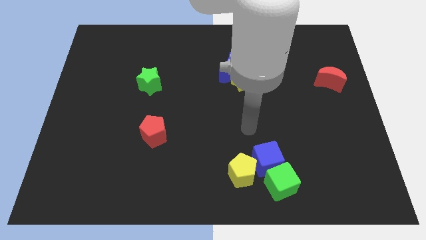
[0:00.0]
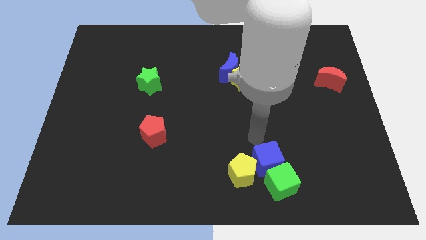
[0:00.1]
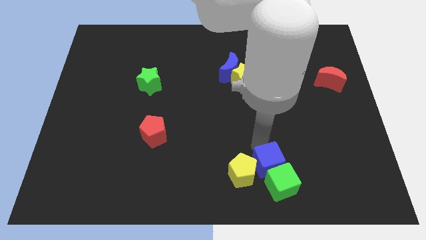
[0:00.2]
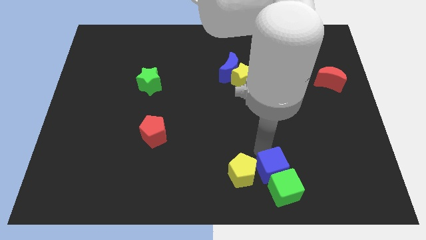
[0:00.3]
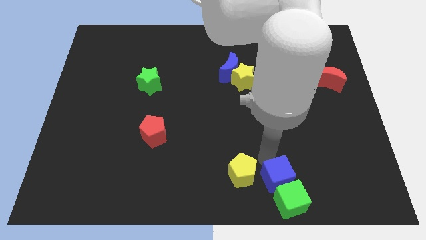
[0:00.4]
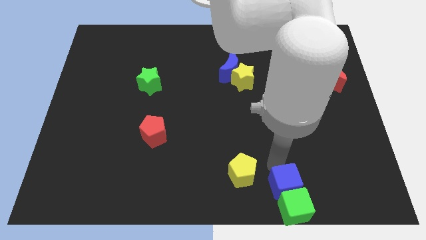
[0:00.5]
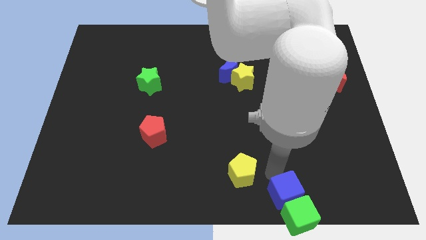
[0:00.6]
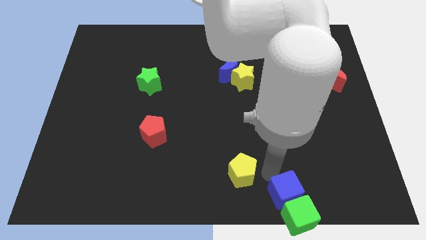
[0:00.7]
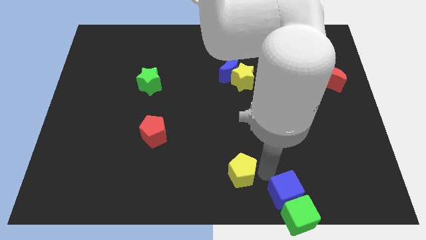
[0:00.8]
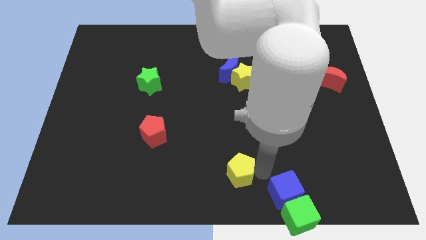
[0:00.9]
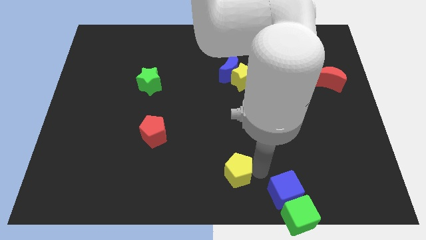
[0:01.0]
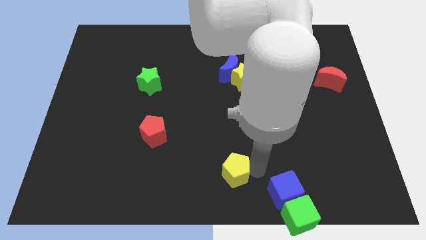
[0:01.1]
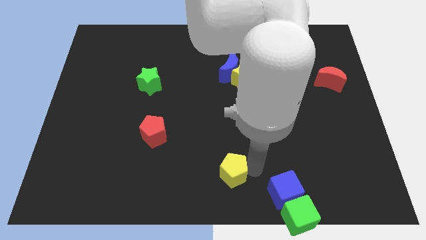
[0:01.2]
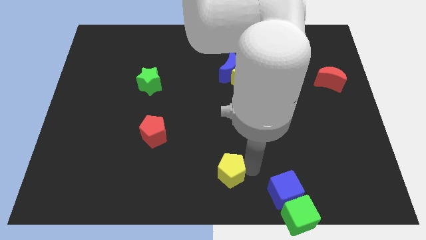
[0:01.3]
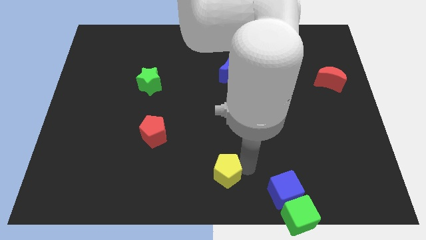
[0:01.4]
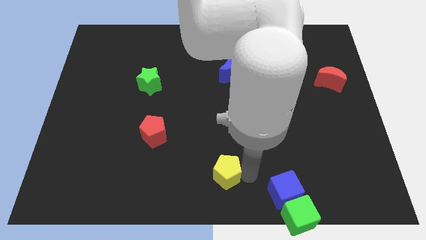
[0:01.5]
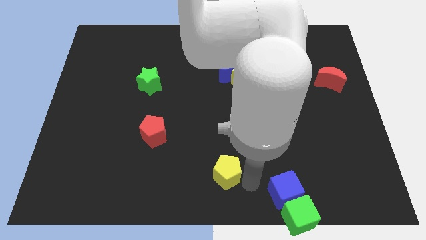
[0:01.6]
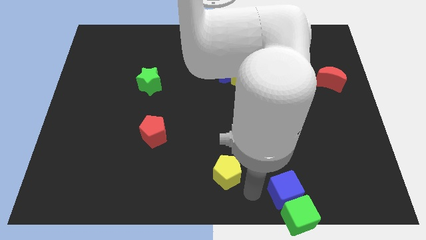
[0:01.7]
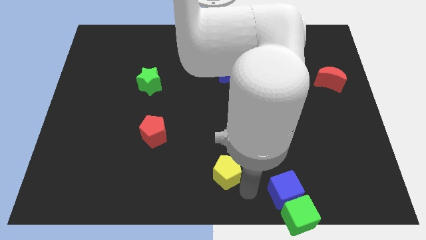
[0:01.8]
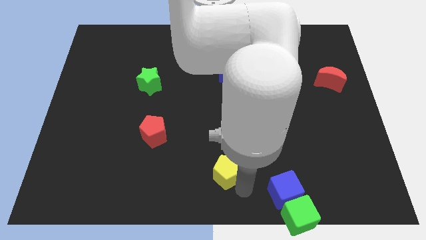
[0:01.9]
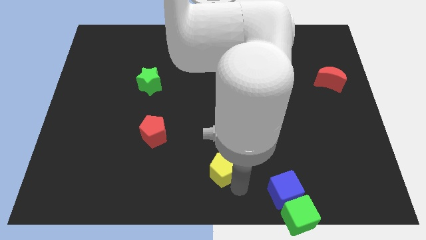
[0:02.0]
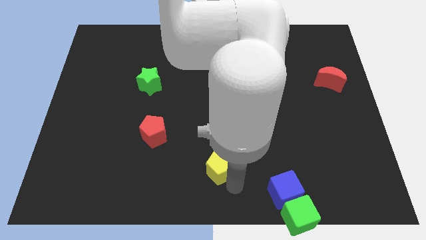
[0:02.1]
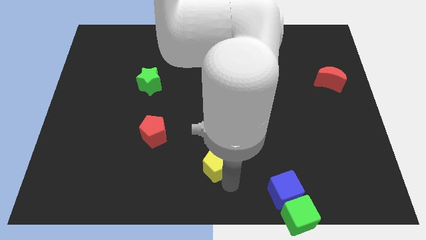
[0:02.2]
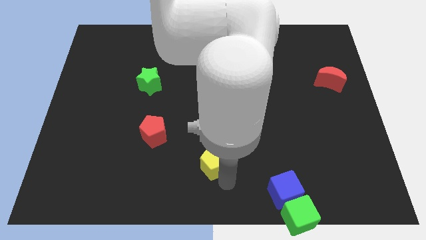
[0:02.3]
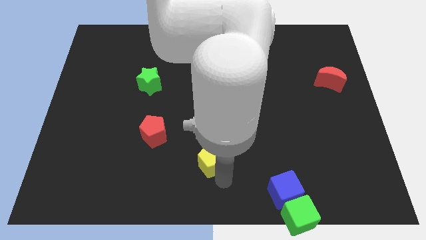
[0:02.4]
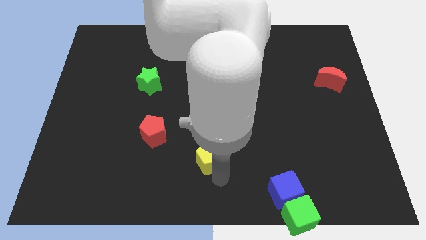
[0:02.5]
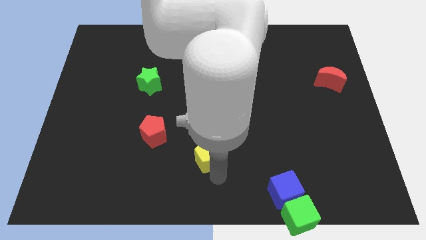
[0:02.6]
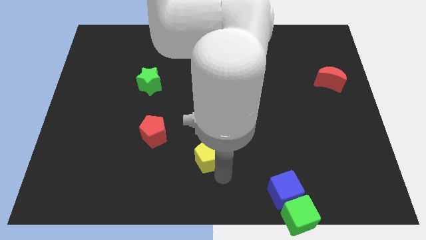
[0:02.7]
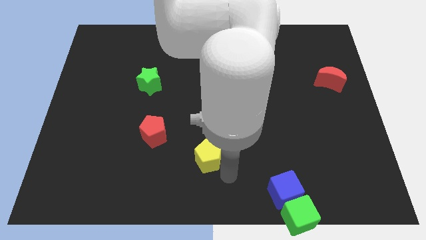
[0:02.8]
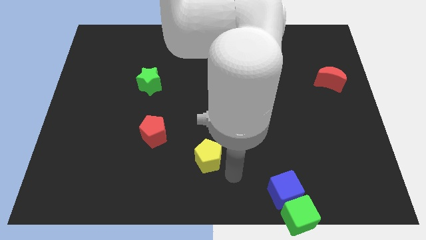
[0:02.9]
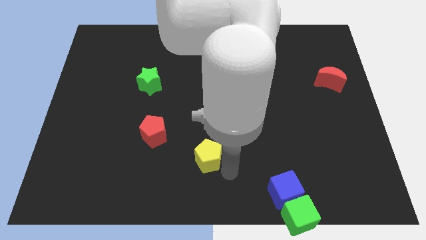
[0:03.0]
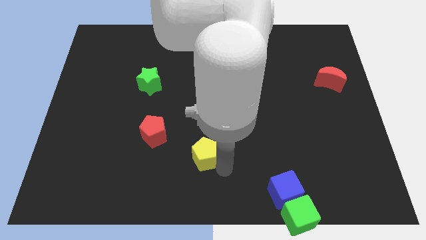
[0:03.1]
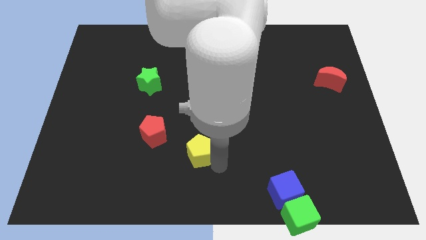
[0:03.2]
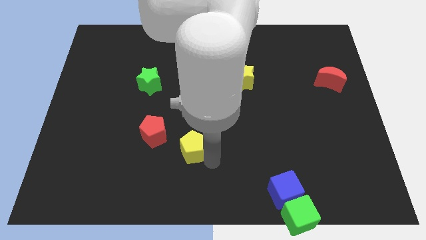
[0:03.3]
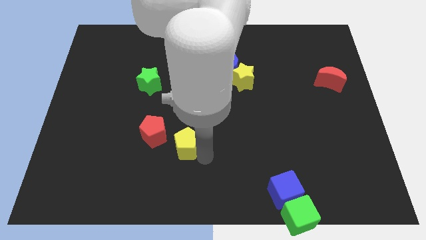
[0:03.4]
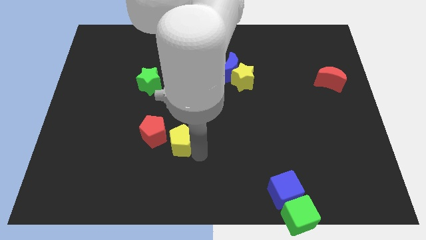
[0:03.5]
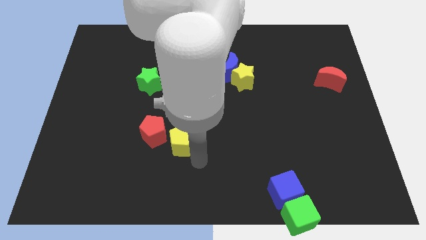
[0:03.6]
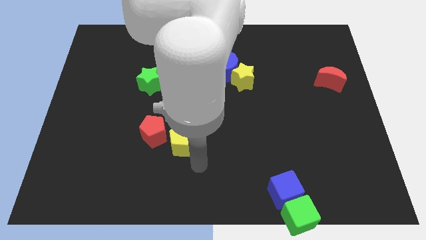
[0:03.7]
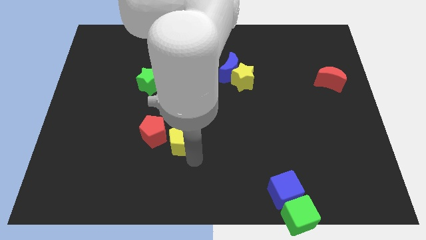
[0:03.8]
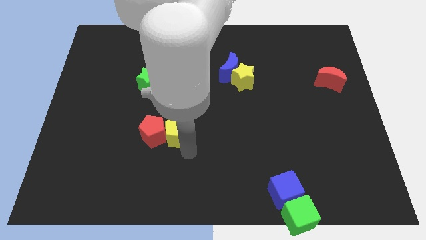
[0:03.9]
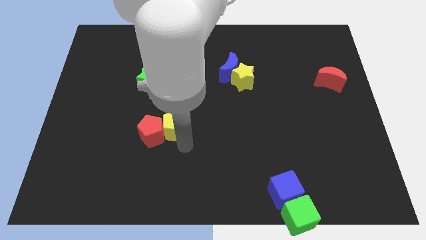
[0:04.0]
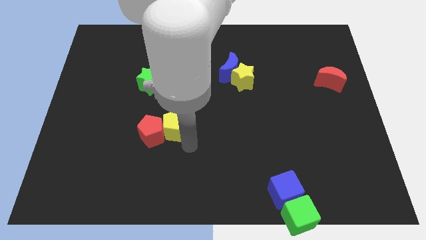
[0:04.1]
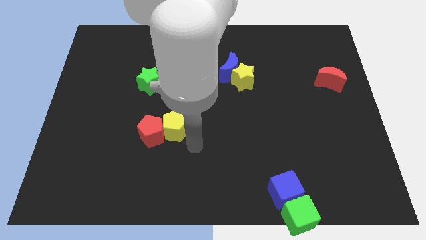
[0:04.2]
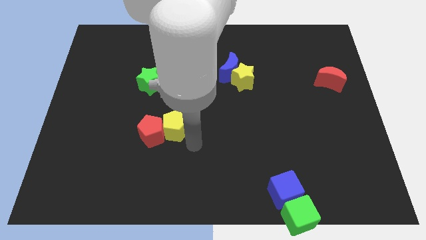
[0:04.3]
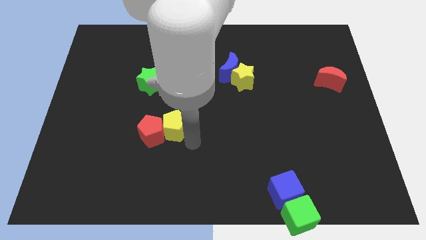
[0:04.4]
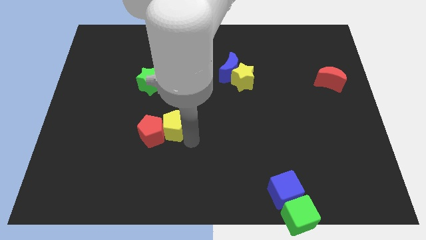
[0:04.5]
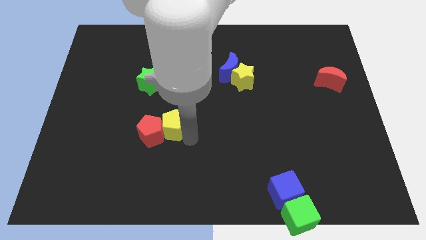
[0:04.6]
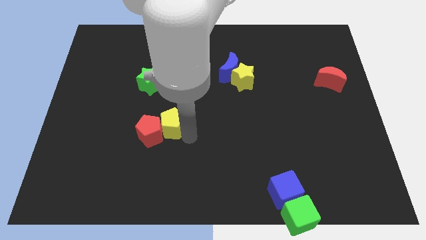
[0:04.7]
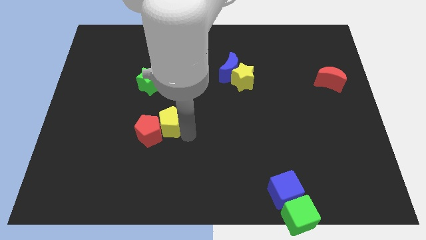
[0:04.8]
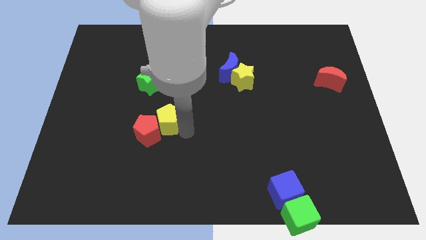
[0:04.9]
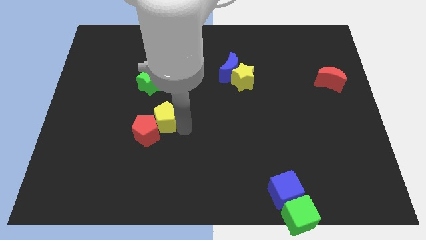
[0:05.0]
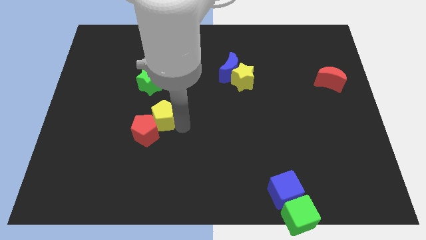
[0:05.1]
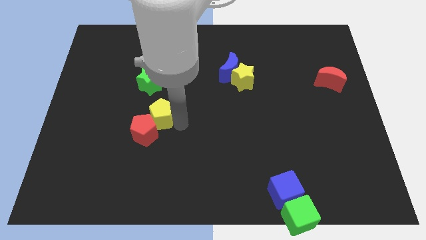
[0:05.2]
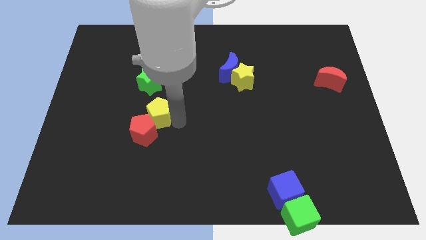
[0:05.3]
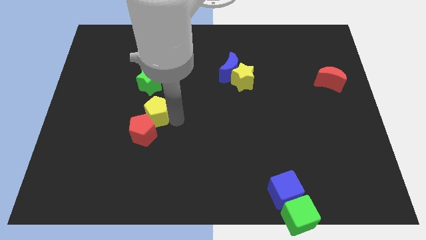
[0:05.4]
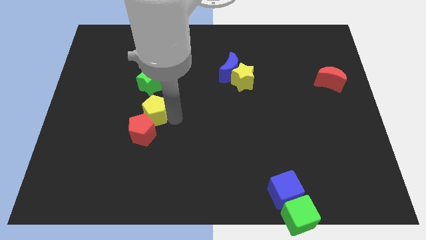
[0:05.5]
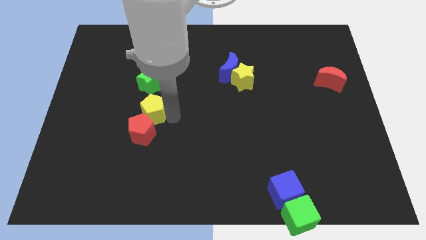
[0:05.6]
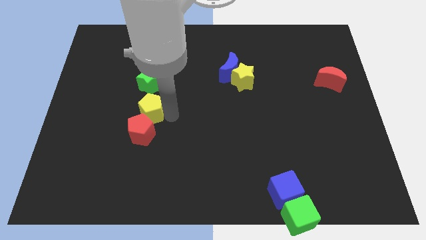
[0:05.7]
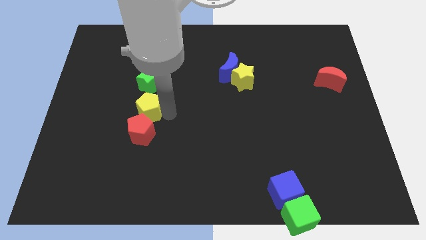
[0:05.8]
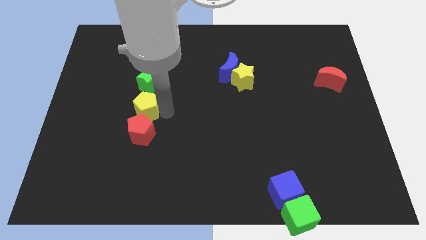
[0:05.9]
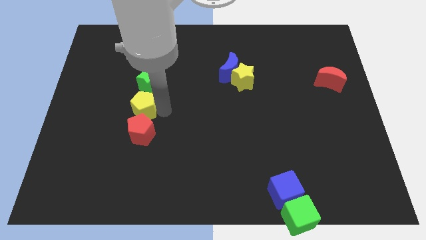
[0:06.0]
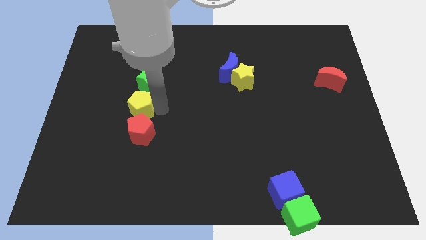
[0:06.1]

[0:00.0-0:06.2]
slide the yellow pentagon to the bottom left of the green star

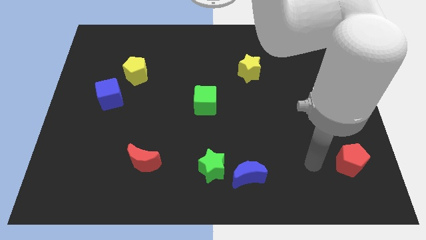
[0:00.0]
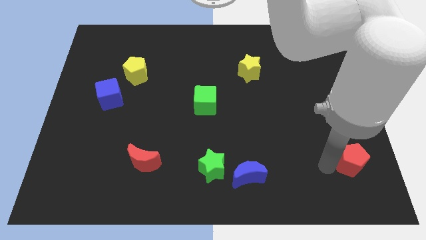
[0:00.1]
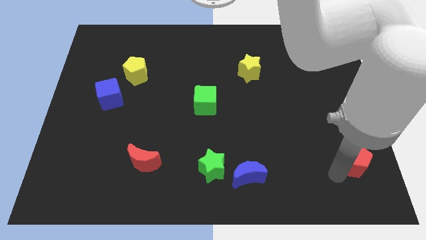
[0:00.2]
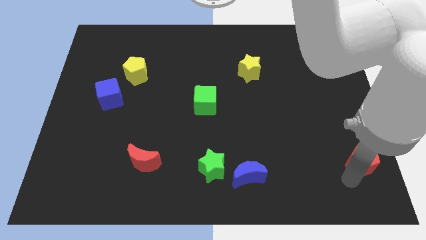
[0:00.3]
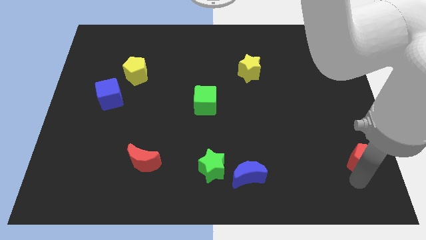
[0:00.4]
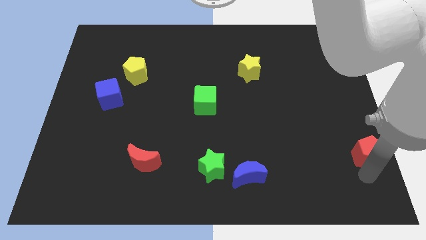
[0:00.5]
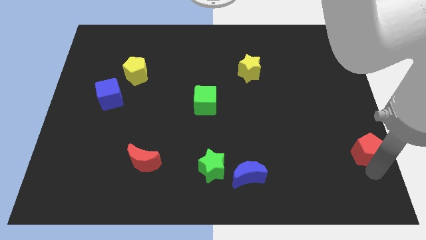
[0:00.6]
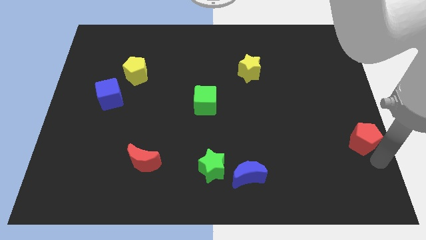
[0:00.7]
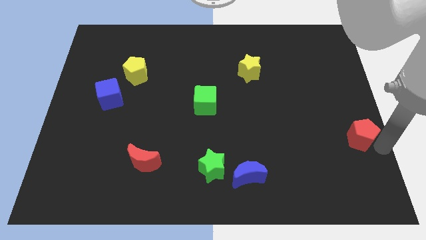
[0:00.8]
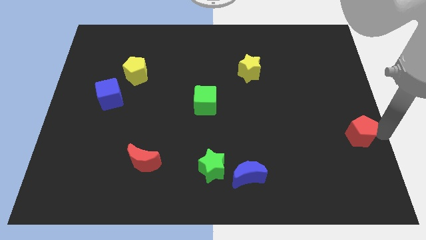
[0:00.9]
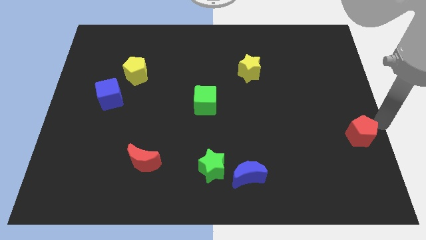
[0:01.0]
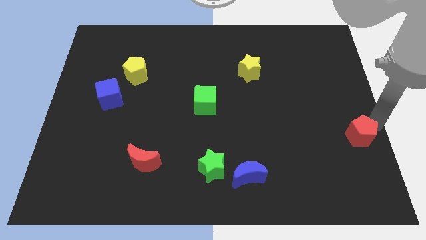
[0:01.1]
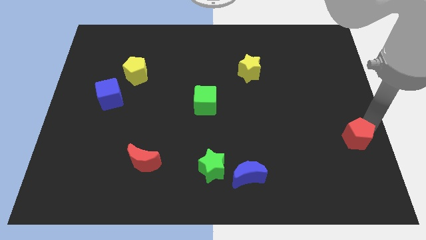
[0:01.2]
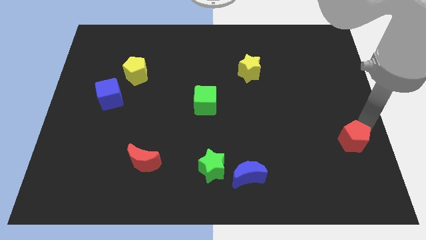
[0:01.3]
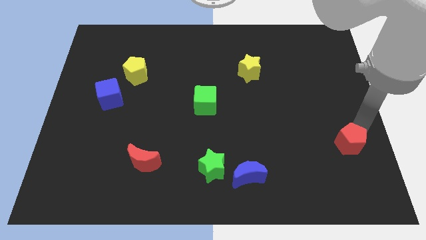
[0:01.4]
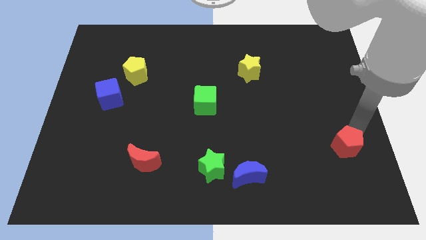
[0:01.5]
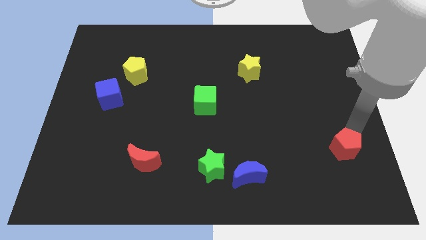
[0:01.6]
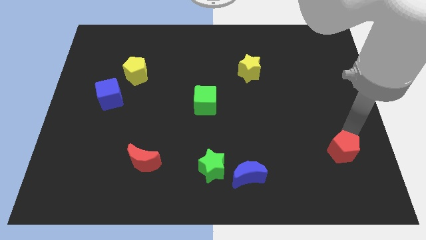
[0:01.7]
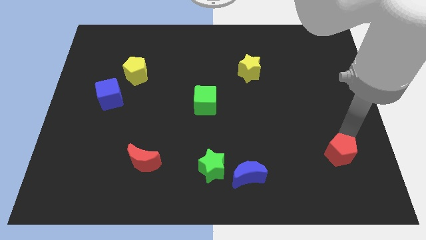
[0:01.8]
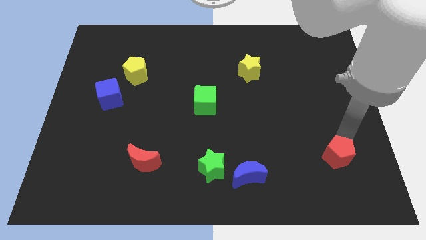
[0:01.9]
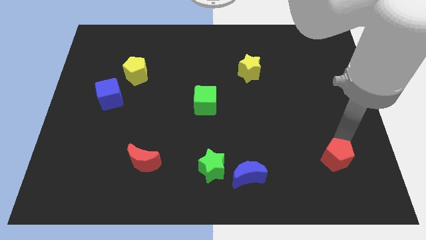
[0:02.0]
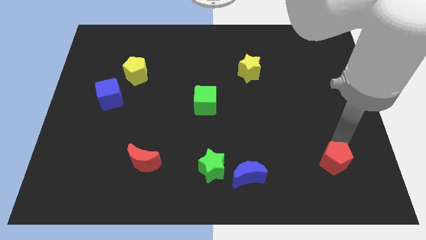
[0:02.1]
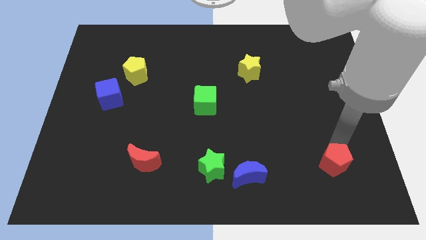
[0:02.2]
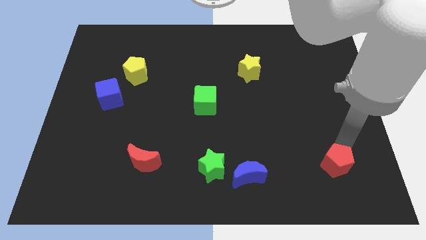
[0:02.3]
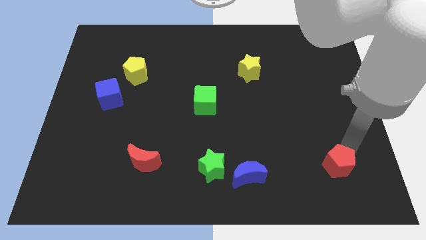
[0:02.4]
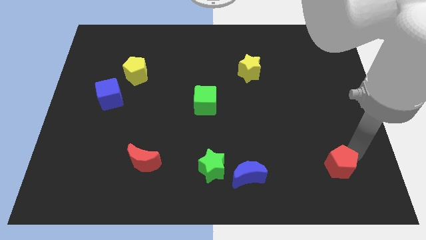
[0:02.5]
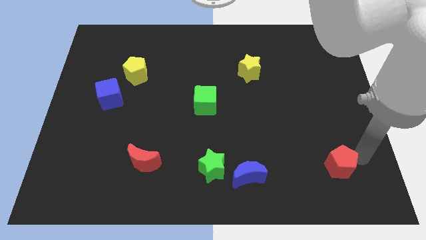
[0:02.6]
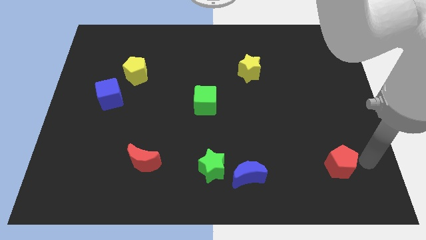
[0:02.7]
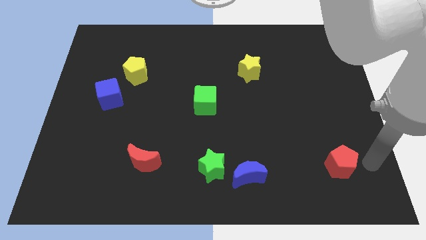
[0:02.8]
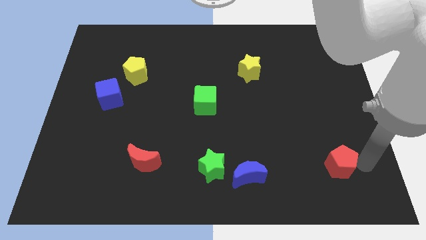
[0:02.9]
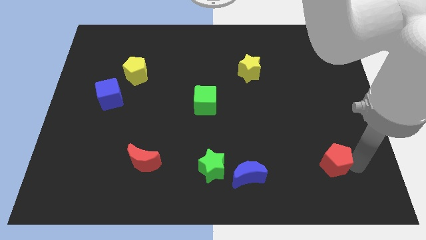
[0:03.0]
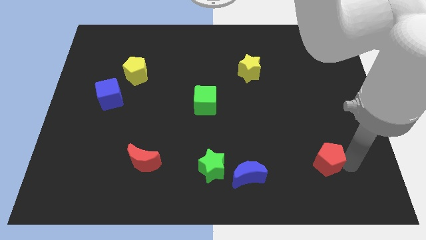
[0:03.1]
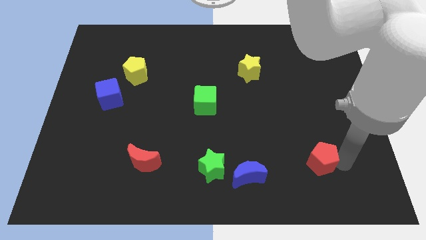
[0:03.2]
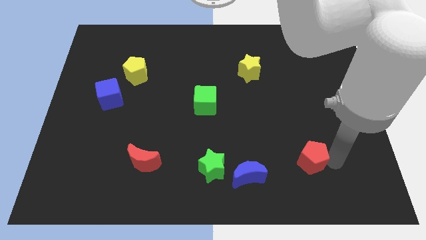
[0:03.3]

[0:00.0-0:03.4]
put the red pentagon to the right of the blue moon
